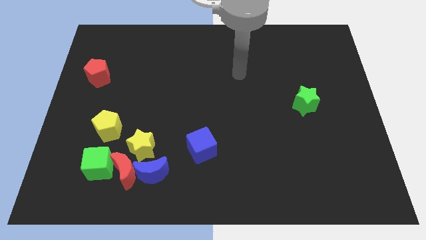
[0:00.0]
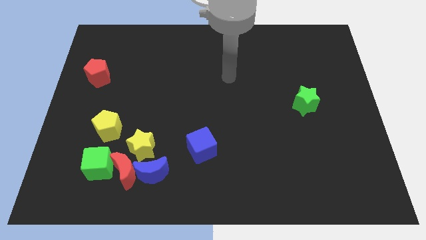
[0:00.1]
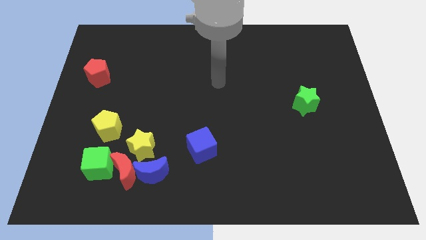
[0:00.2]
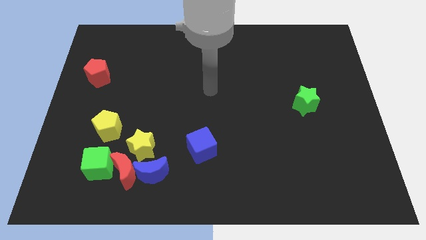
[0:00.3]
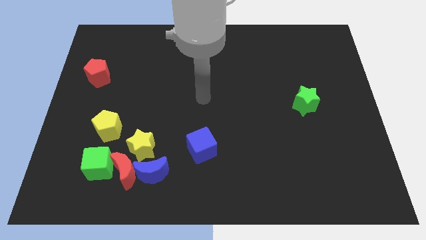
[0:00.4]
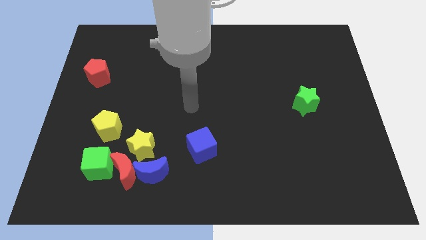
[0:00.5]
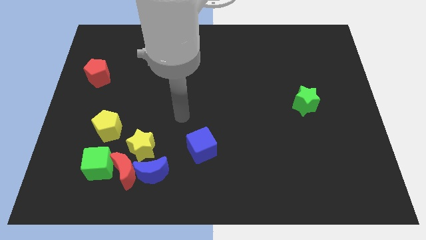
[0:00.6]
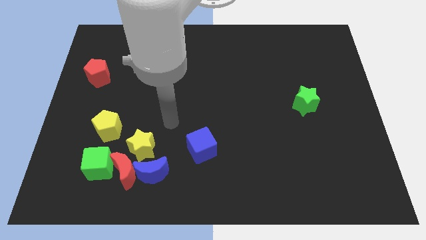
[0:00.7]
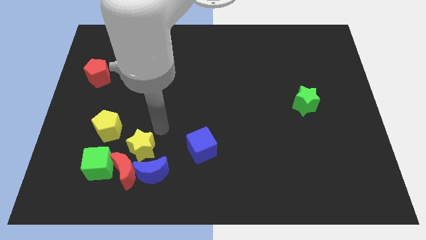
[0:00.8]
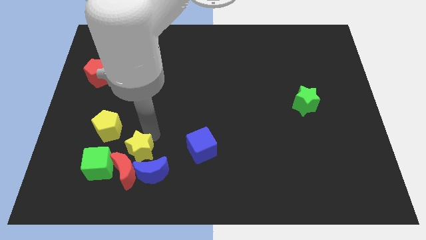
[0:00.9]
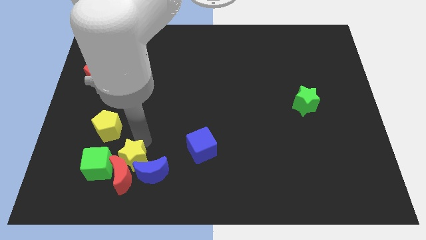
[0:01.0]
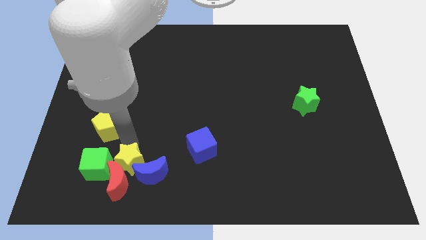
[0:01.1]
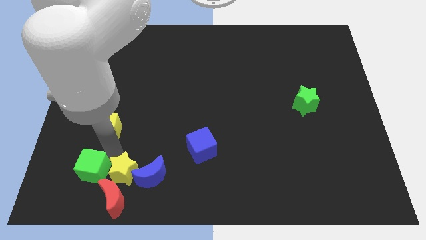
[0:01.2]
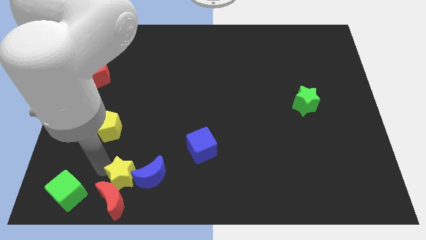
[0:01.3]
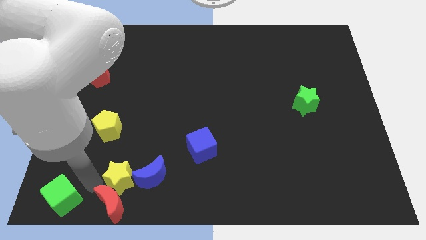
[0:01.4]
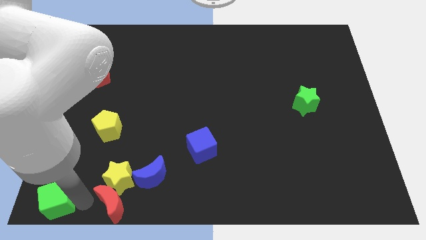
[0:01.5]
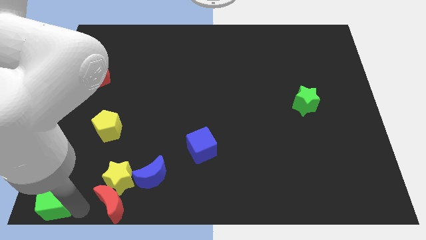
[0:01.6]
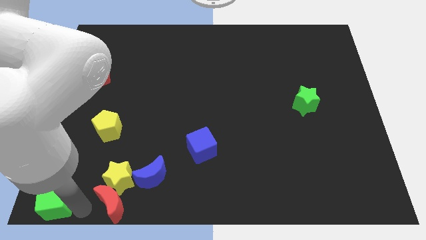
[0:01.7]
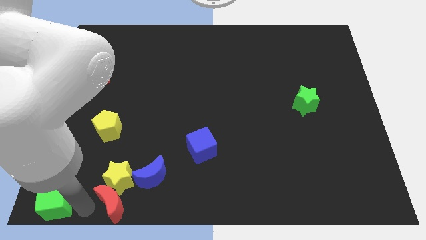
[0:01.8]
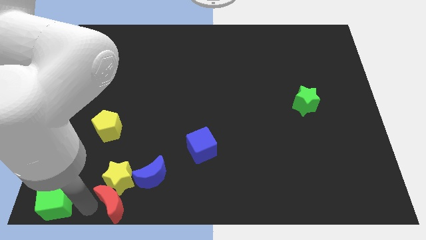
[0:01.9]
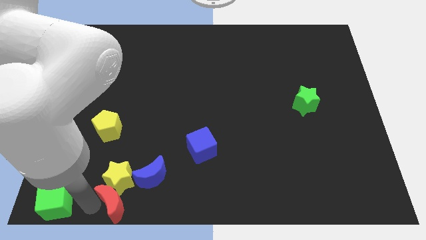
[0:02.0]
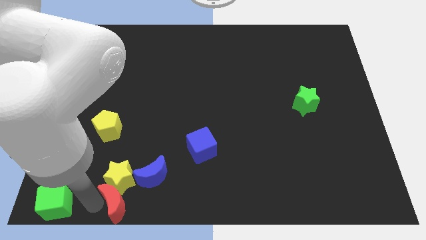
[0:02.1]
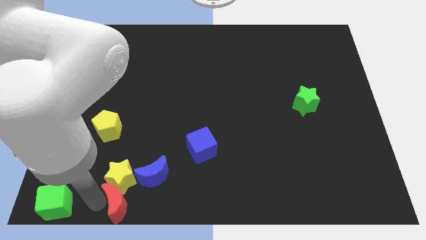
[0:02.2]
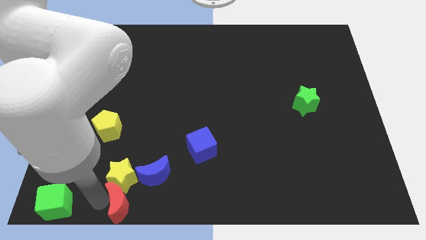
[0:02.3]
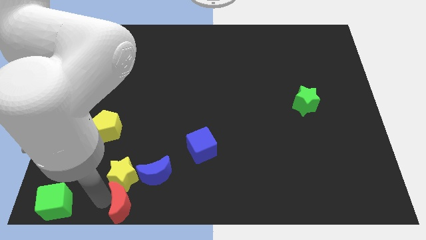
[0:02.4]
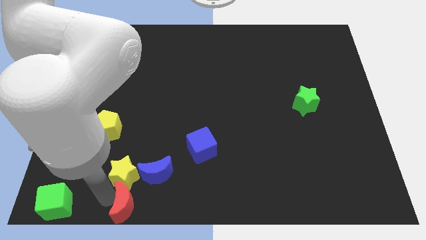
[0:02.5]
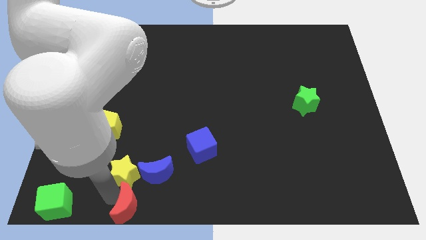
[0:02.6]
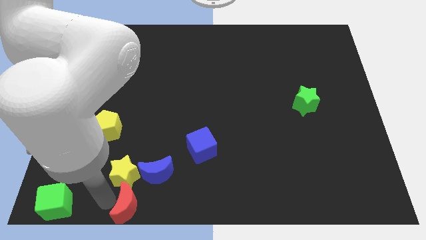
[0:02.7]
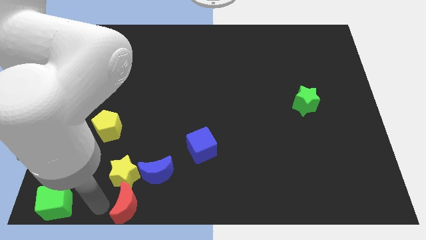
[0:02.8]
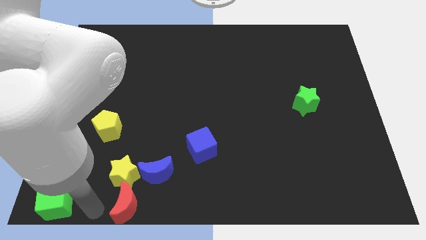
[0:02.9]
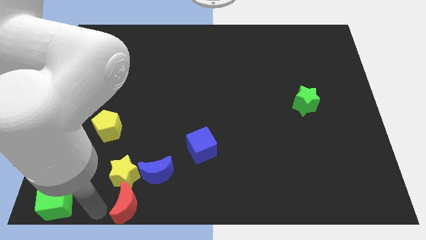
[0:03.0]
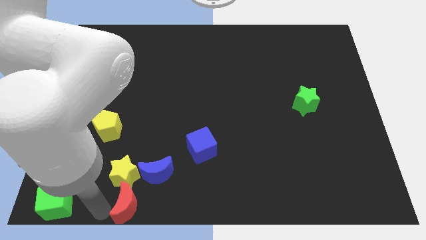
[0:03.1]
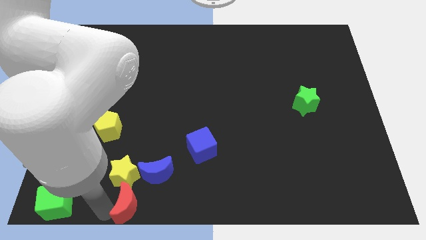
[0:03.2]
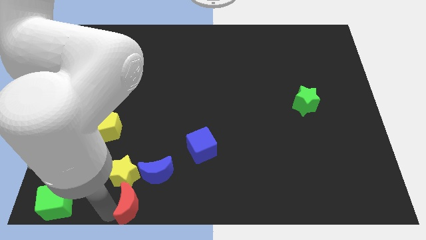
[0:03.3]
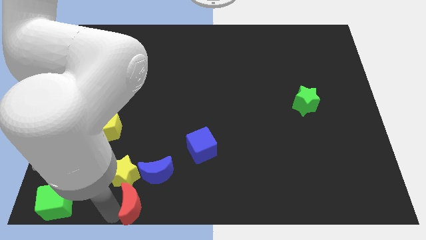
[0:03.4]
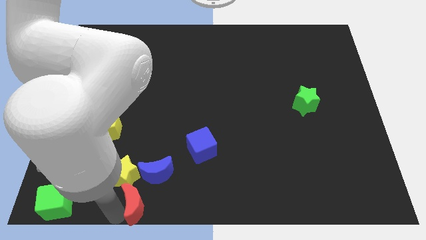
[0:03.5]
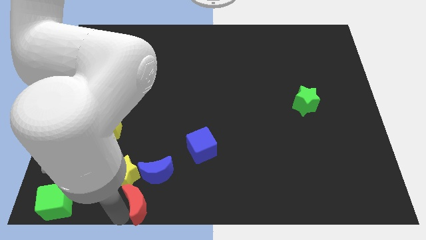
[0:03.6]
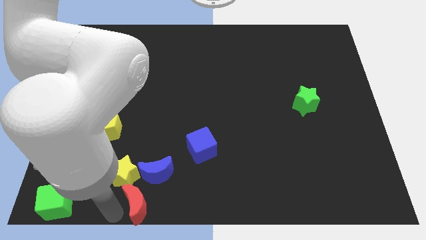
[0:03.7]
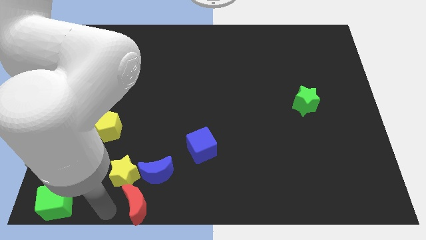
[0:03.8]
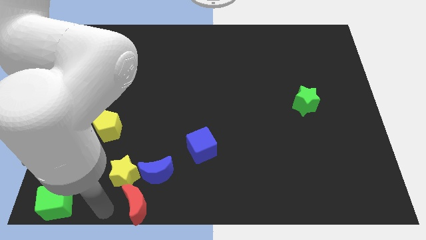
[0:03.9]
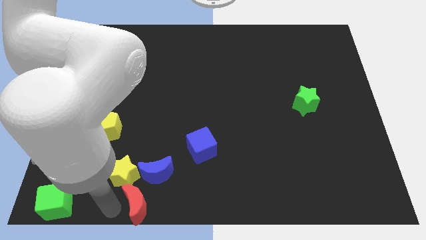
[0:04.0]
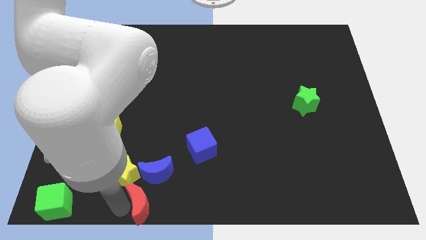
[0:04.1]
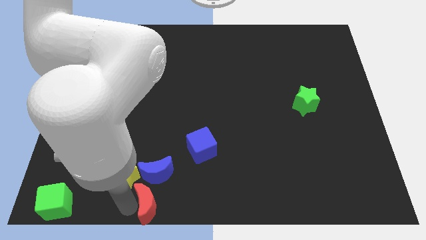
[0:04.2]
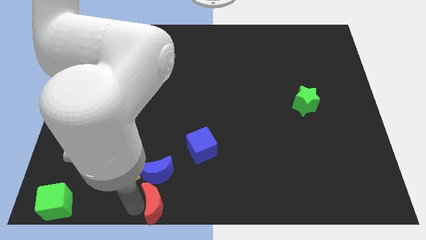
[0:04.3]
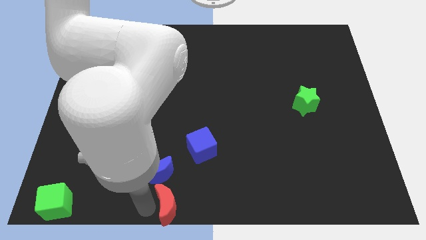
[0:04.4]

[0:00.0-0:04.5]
slightly slide the red moon right

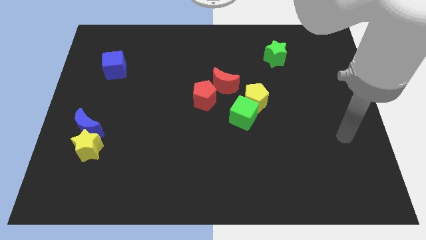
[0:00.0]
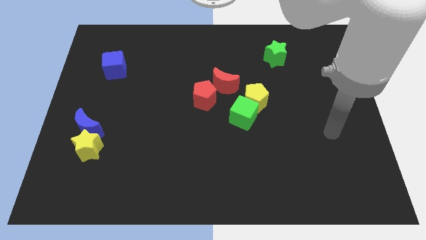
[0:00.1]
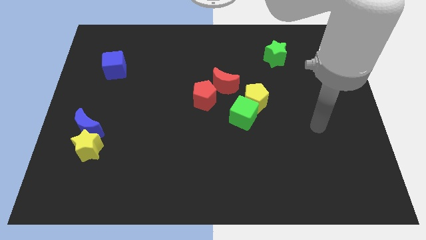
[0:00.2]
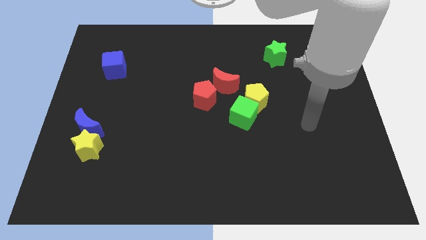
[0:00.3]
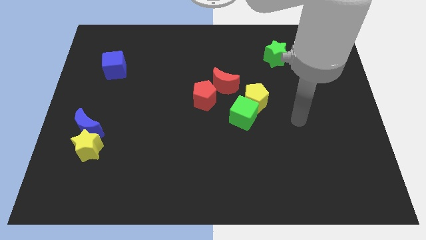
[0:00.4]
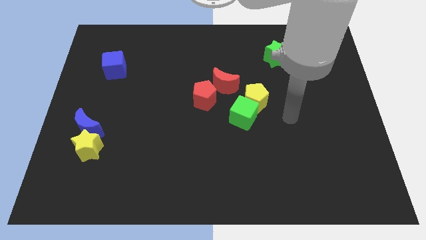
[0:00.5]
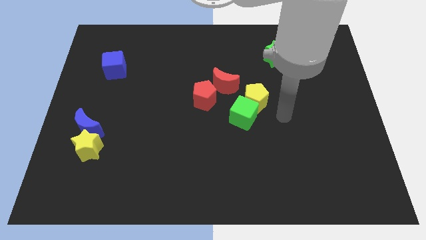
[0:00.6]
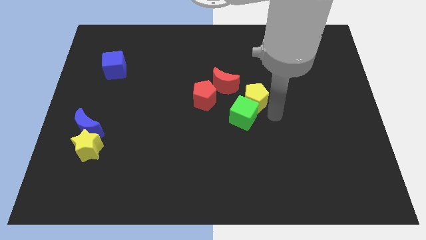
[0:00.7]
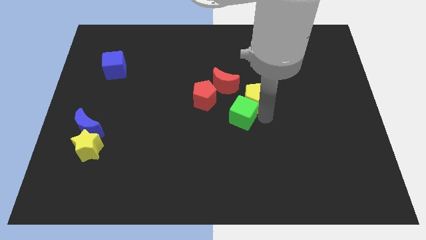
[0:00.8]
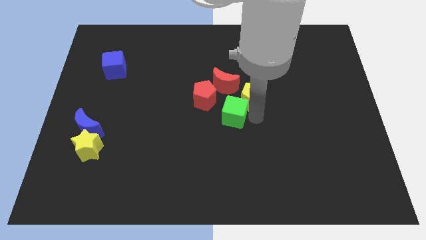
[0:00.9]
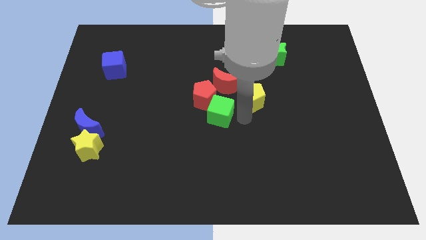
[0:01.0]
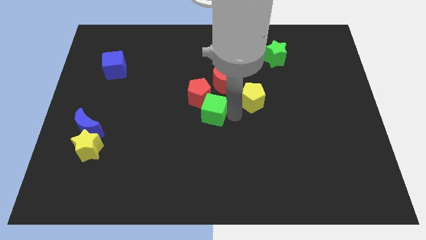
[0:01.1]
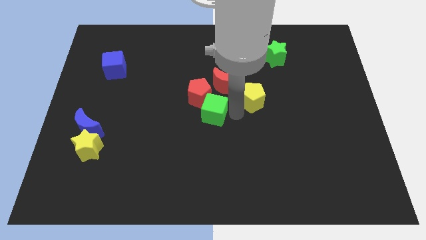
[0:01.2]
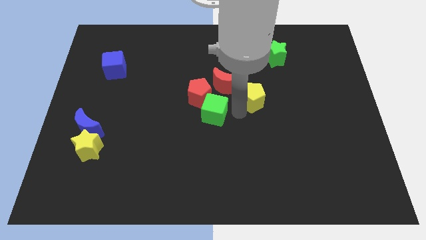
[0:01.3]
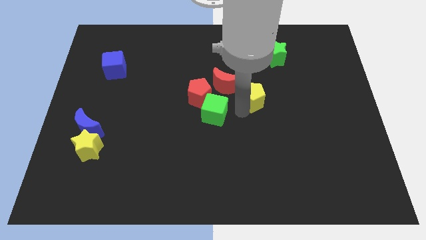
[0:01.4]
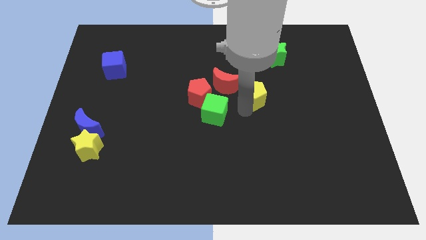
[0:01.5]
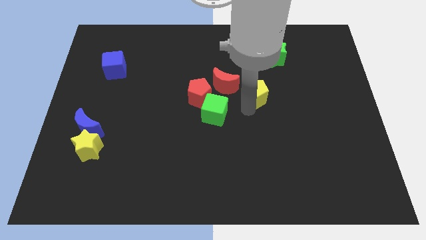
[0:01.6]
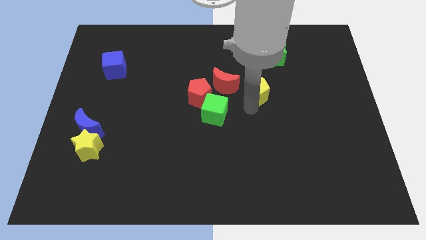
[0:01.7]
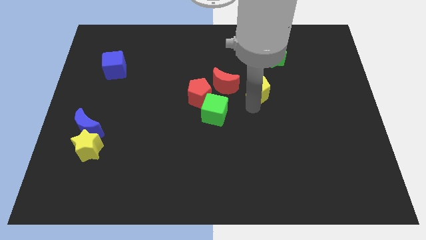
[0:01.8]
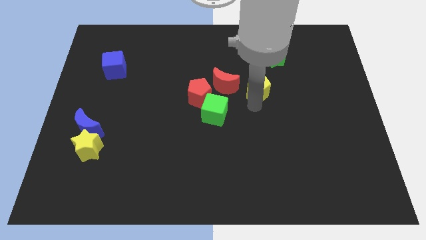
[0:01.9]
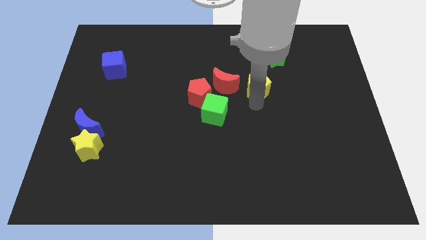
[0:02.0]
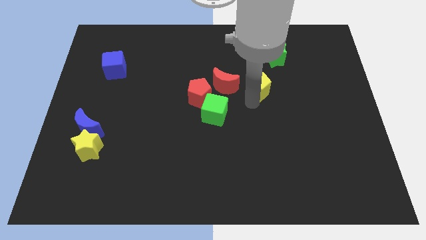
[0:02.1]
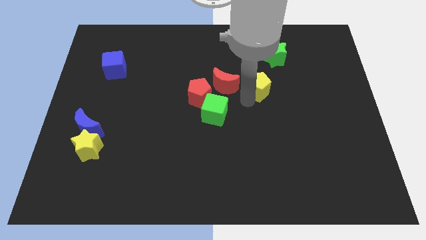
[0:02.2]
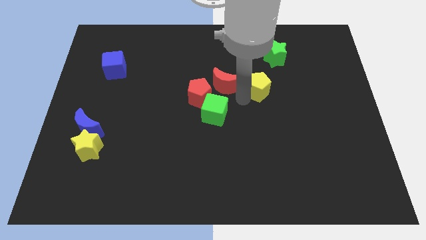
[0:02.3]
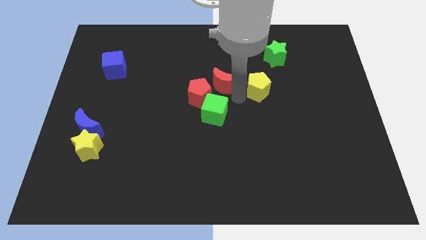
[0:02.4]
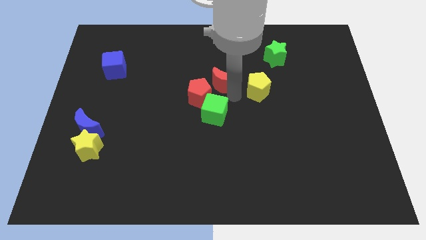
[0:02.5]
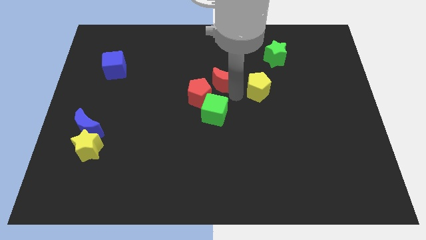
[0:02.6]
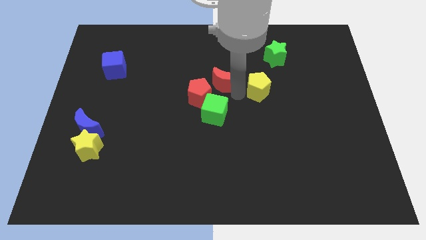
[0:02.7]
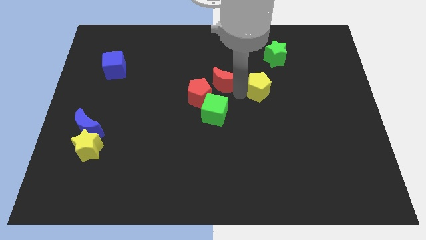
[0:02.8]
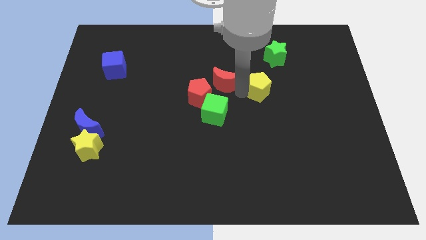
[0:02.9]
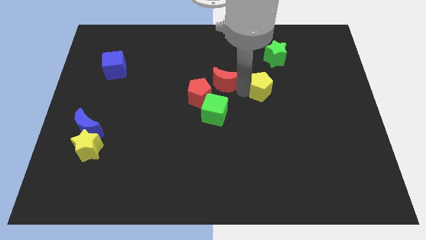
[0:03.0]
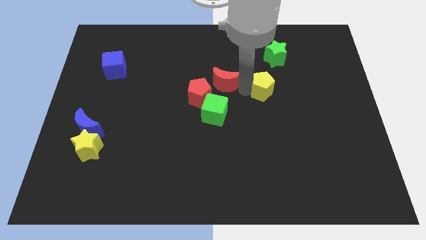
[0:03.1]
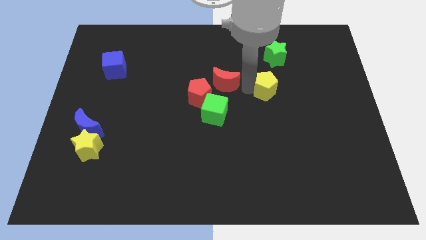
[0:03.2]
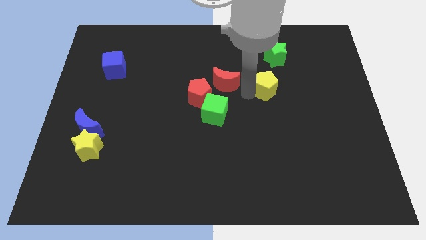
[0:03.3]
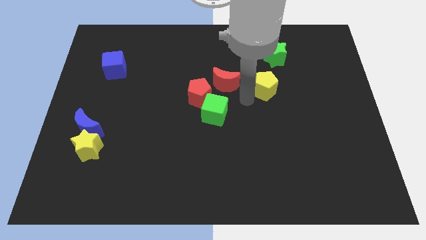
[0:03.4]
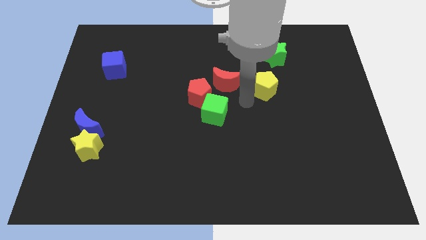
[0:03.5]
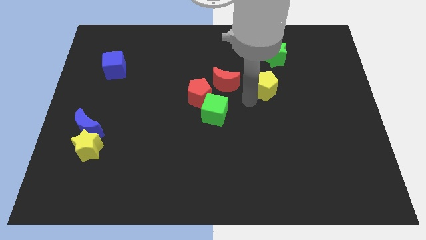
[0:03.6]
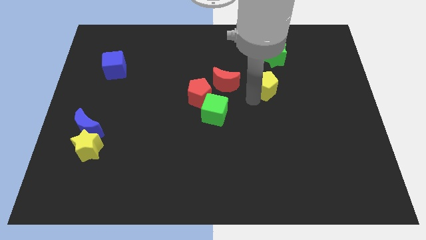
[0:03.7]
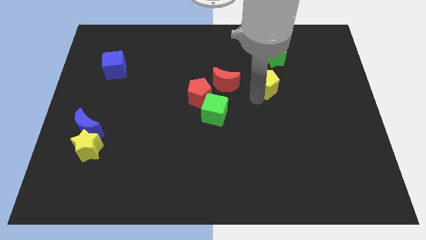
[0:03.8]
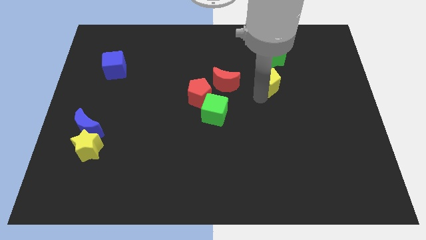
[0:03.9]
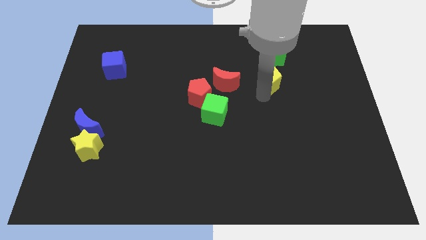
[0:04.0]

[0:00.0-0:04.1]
push the yellow pentagon a bit up and then right
